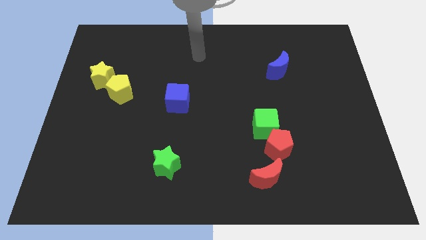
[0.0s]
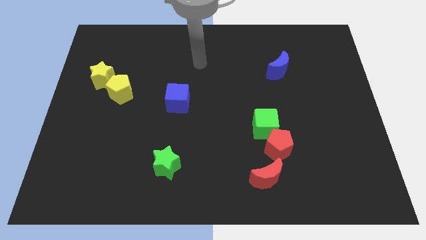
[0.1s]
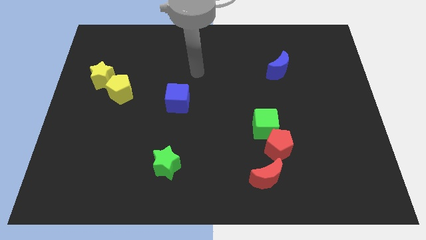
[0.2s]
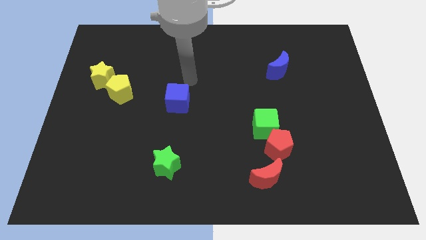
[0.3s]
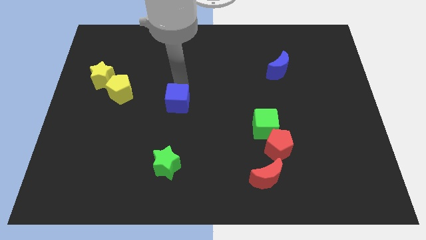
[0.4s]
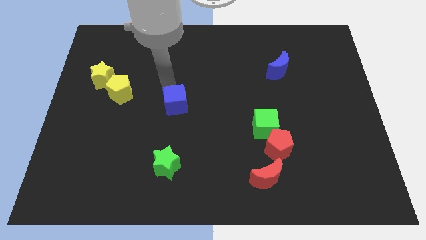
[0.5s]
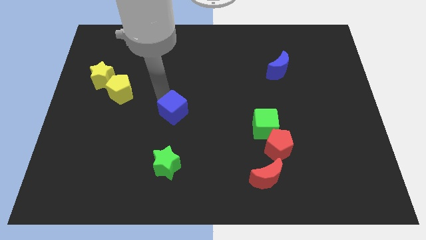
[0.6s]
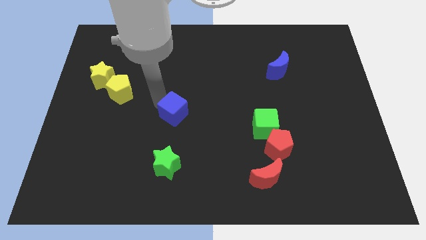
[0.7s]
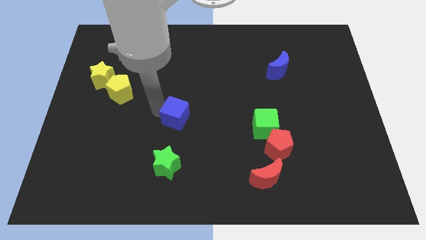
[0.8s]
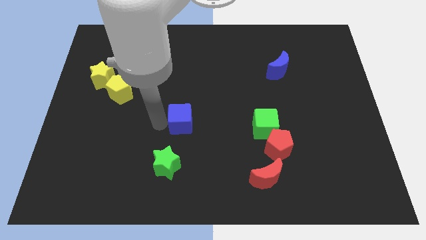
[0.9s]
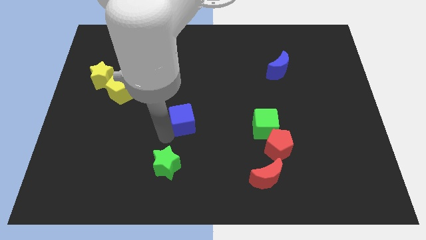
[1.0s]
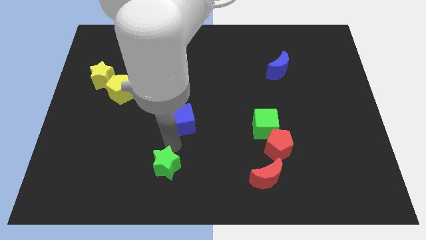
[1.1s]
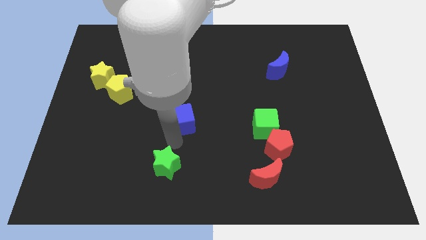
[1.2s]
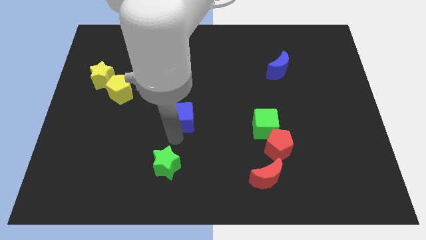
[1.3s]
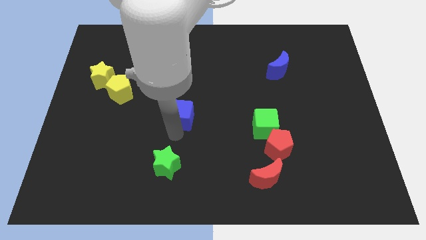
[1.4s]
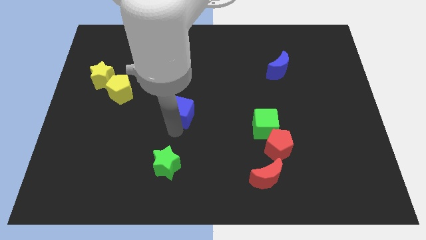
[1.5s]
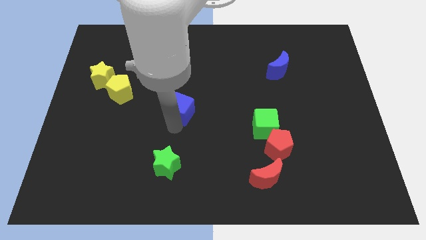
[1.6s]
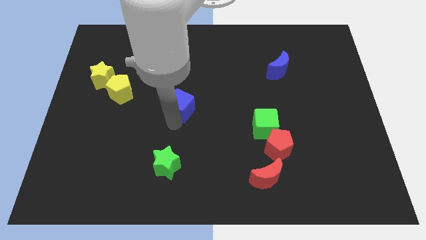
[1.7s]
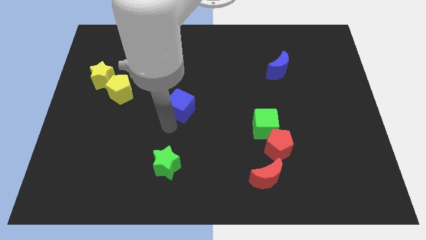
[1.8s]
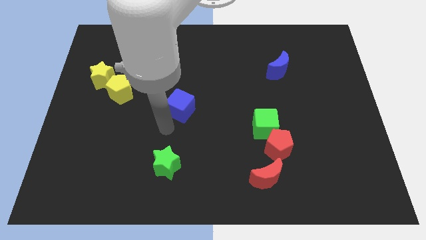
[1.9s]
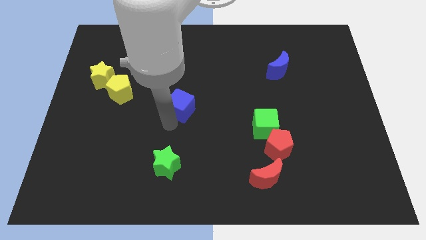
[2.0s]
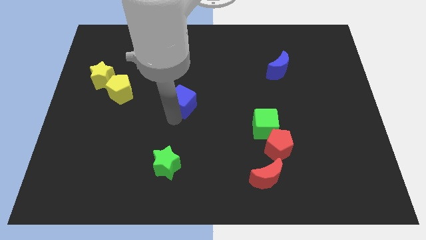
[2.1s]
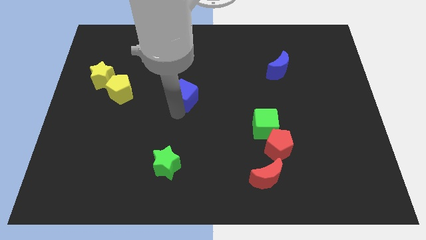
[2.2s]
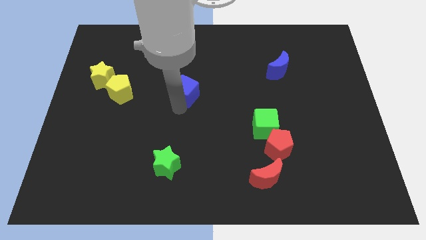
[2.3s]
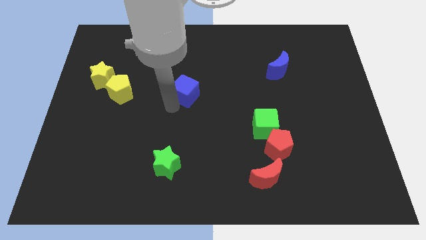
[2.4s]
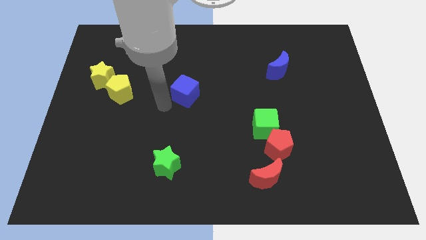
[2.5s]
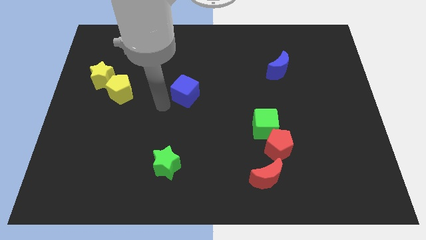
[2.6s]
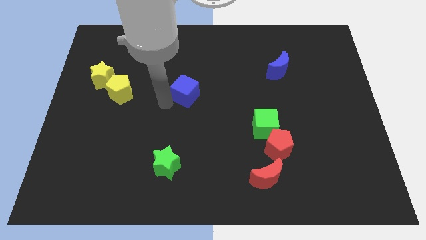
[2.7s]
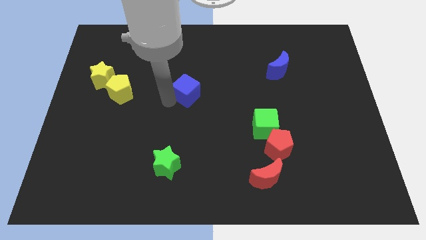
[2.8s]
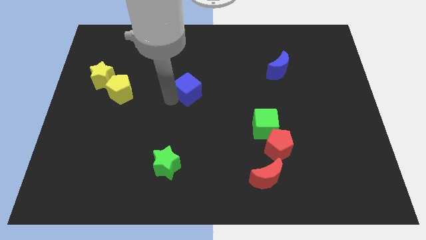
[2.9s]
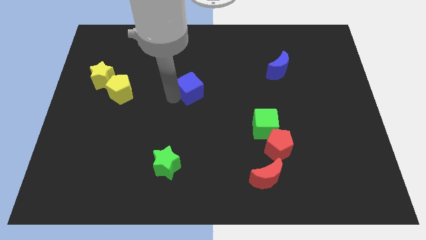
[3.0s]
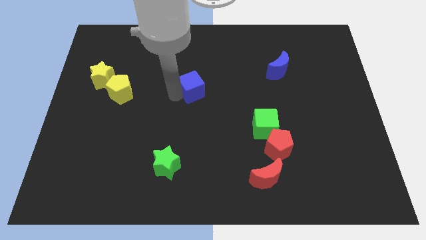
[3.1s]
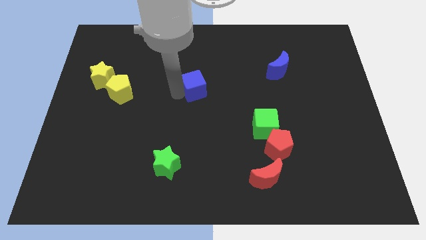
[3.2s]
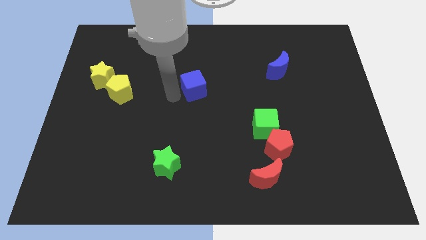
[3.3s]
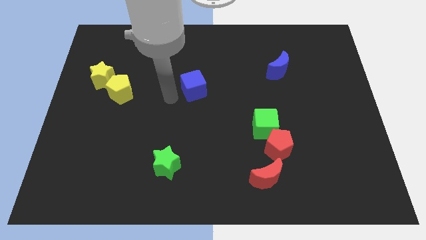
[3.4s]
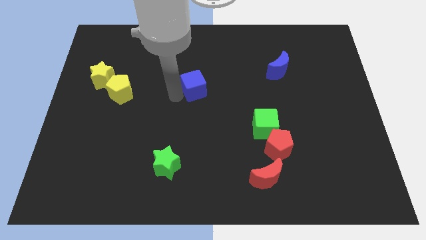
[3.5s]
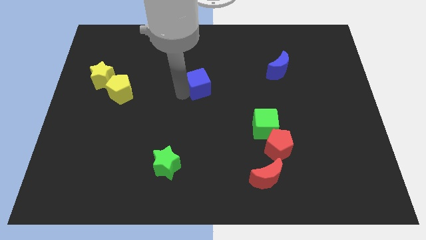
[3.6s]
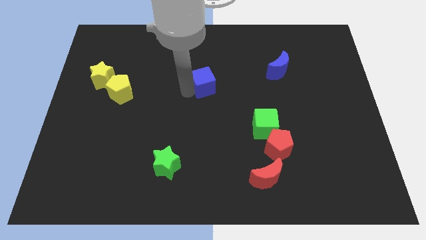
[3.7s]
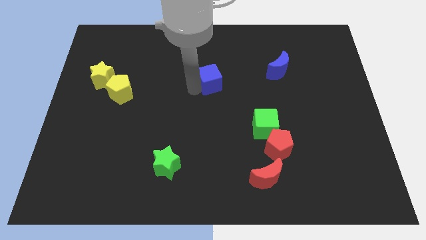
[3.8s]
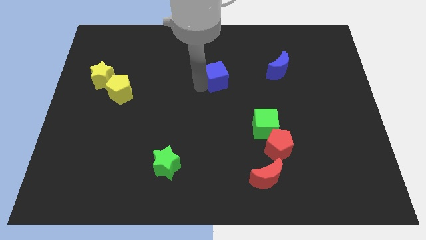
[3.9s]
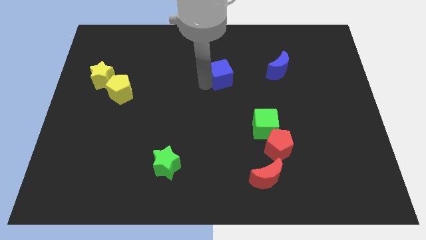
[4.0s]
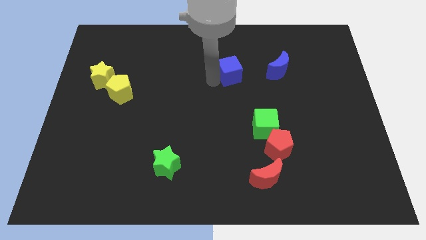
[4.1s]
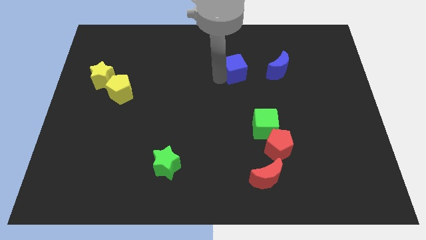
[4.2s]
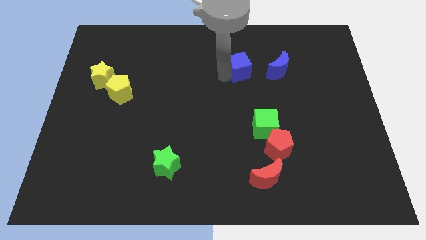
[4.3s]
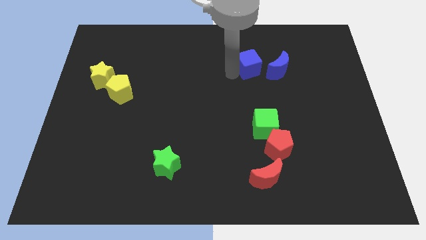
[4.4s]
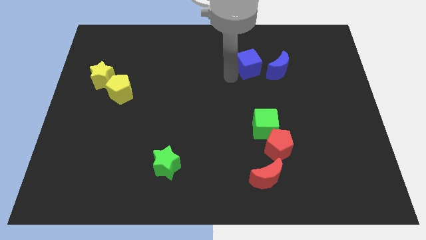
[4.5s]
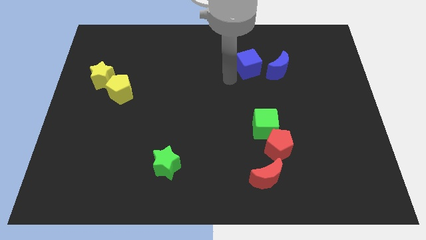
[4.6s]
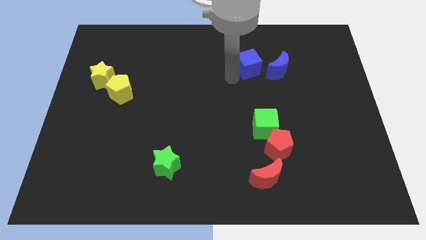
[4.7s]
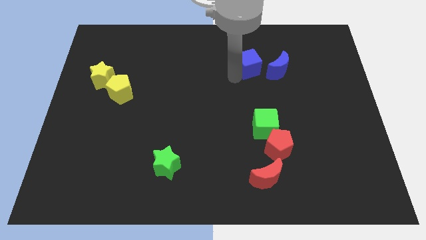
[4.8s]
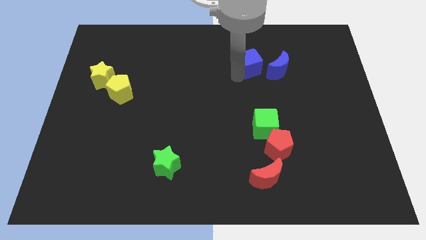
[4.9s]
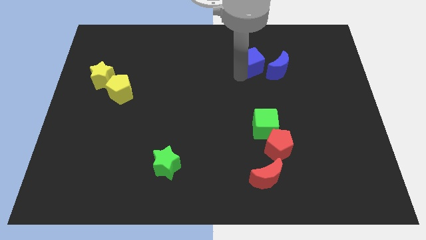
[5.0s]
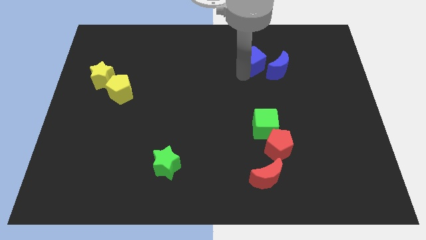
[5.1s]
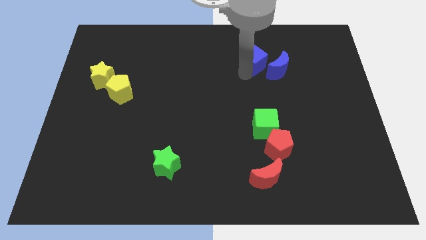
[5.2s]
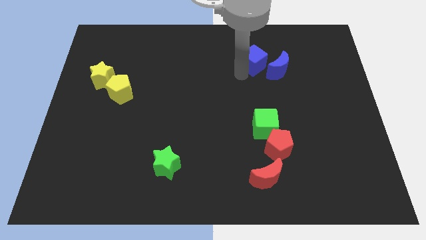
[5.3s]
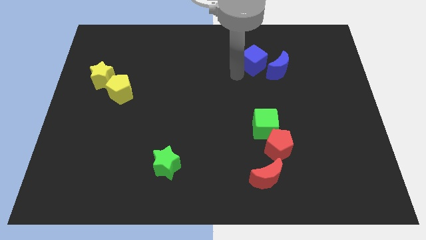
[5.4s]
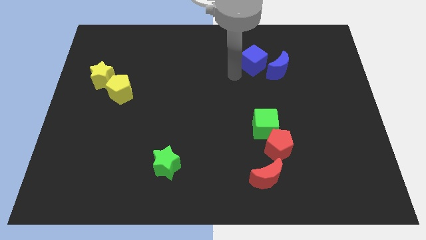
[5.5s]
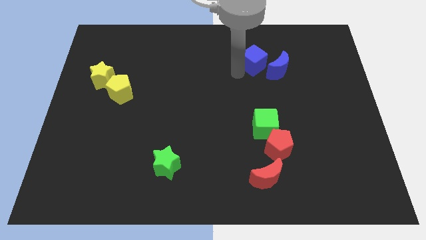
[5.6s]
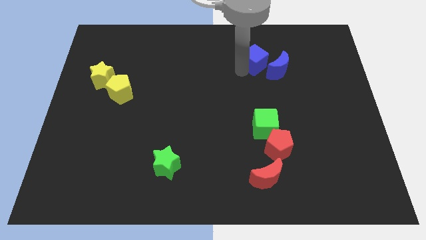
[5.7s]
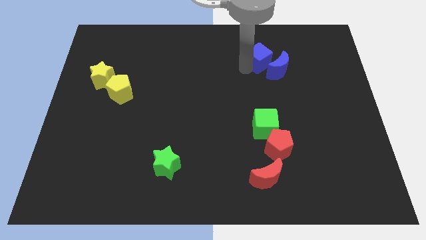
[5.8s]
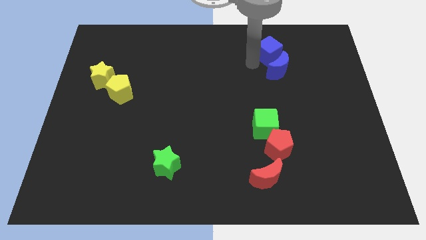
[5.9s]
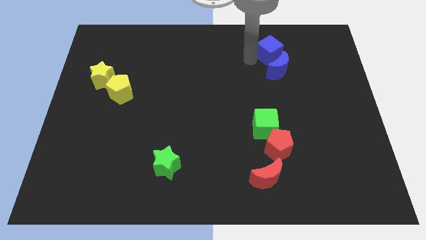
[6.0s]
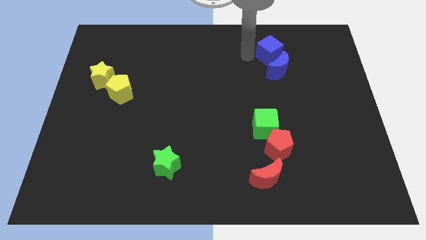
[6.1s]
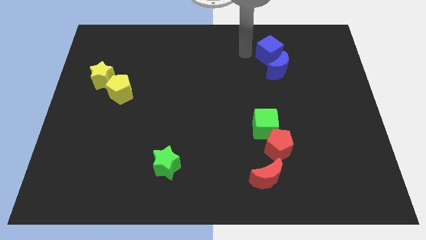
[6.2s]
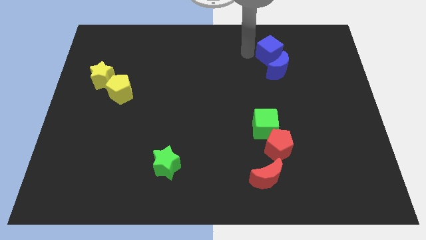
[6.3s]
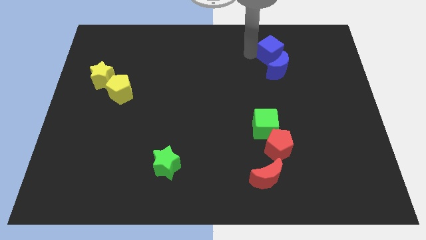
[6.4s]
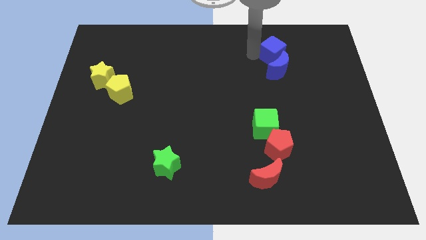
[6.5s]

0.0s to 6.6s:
put the blue cube diagonally up and to the right of the blue moon
